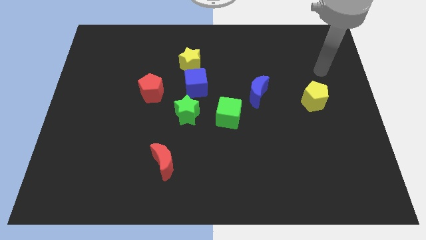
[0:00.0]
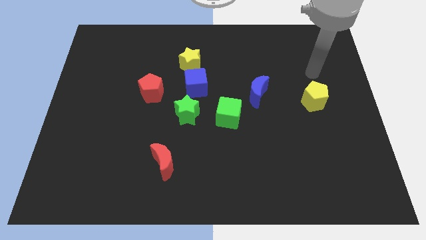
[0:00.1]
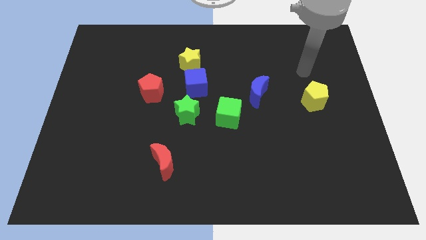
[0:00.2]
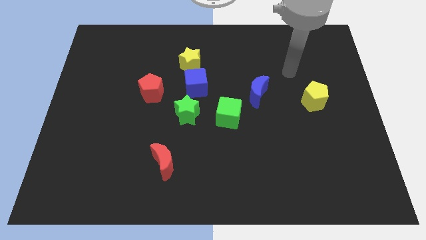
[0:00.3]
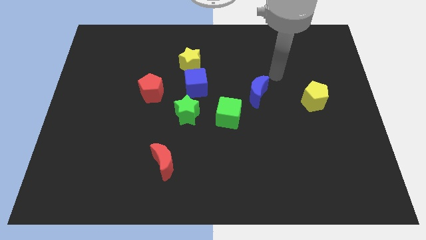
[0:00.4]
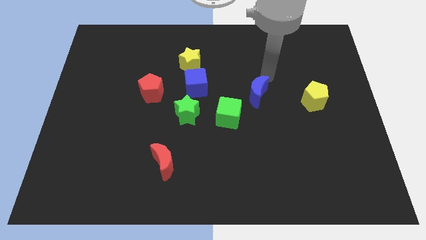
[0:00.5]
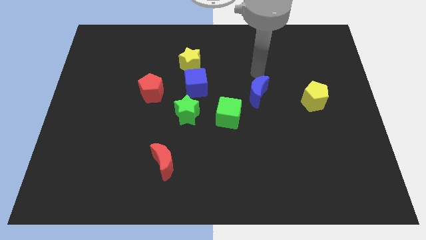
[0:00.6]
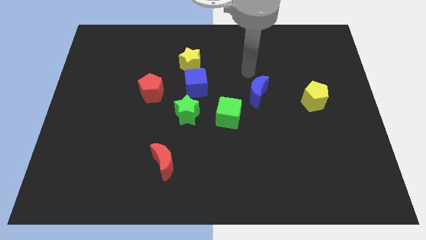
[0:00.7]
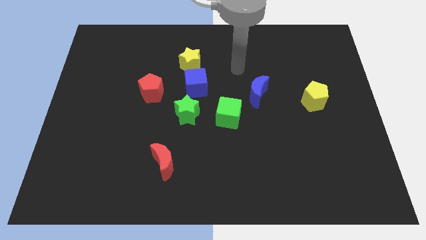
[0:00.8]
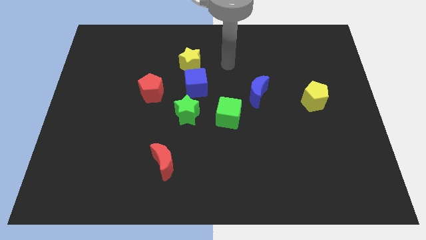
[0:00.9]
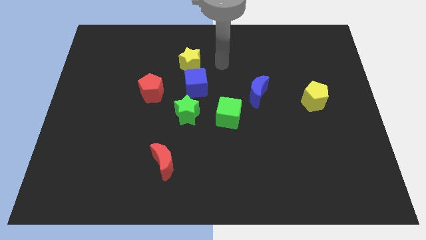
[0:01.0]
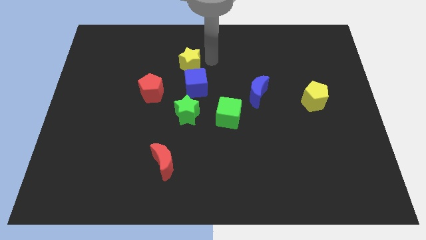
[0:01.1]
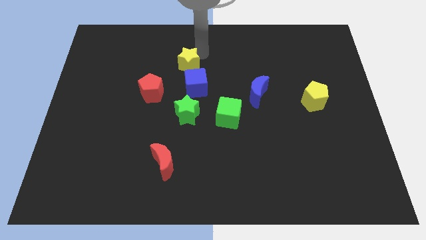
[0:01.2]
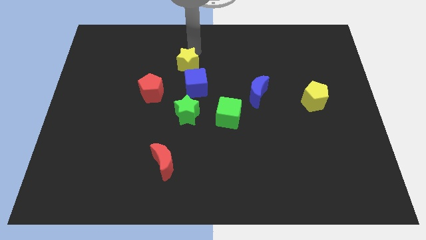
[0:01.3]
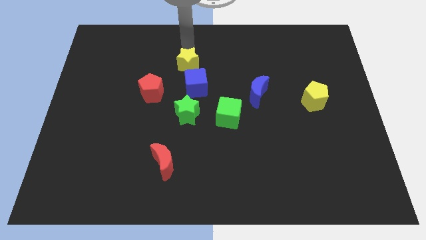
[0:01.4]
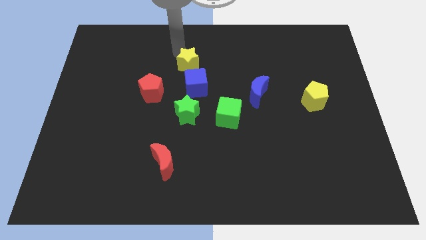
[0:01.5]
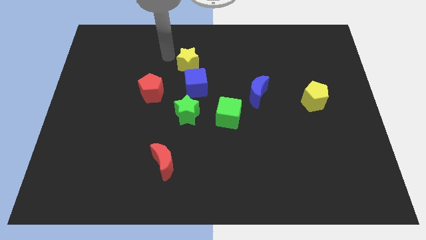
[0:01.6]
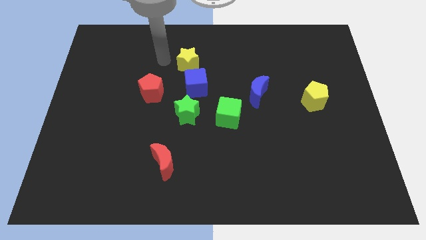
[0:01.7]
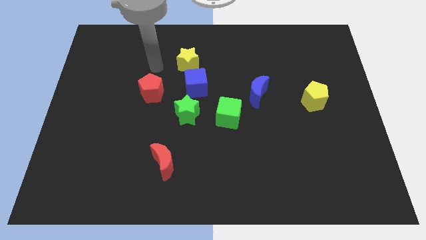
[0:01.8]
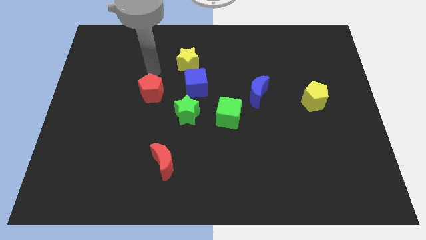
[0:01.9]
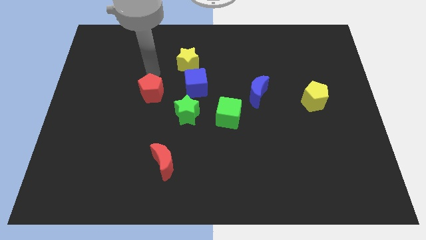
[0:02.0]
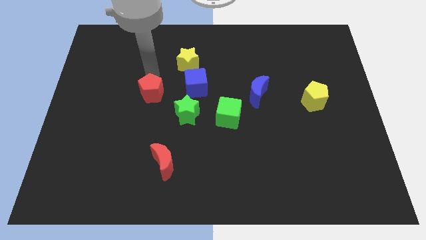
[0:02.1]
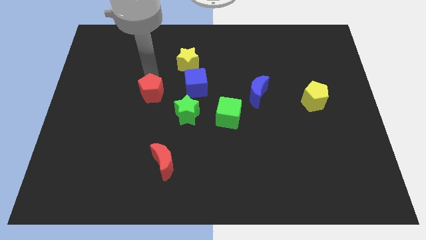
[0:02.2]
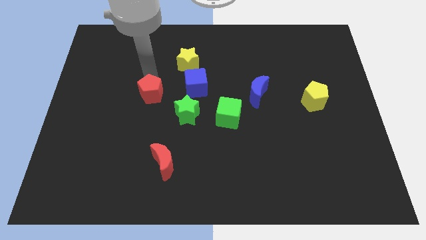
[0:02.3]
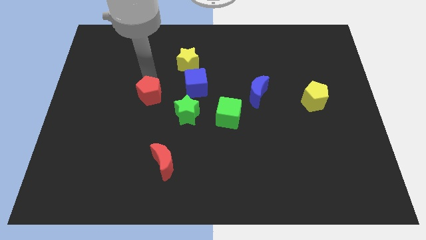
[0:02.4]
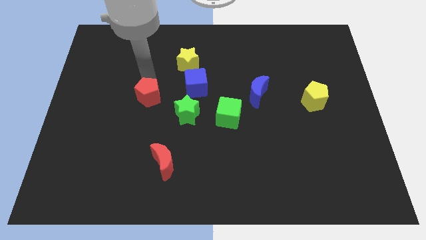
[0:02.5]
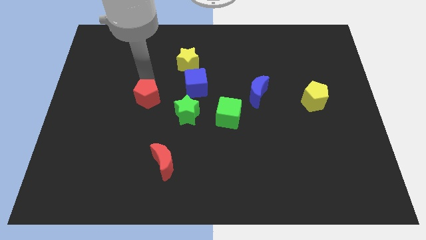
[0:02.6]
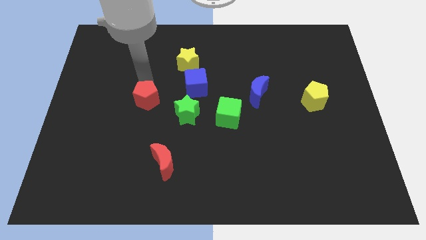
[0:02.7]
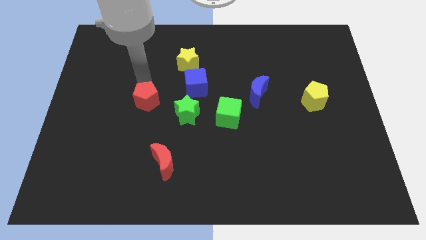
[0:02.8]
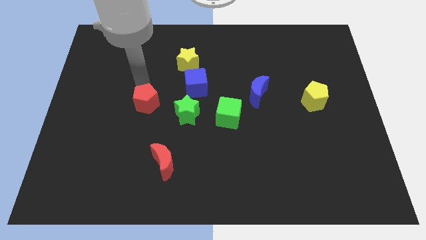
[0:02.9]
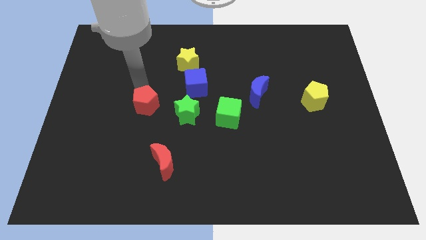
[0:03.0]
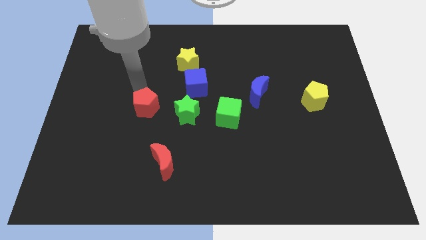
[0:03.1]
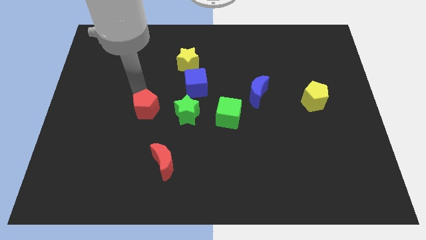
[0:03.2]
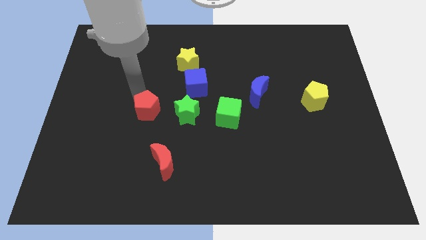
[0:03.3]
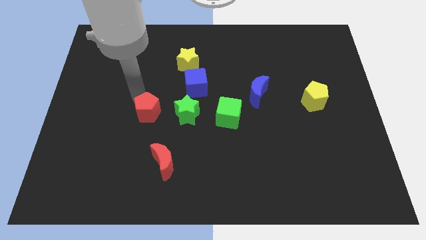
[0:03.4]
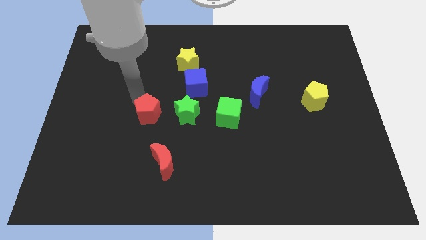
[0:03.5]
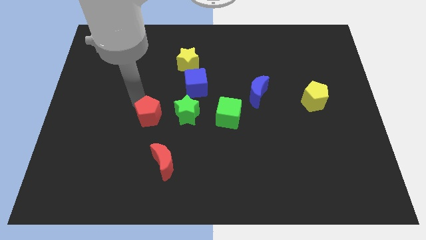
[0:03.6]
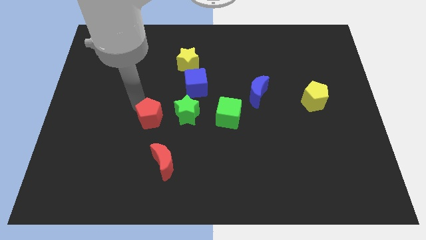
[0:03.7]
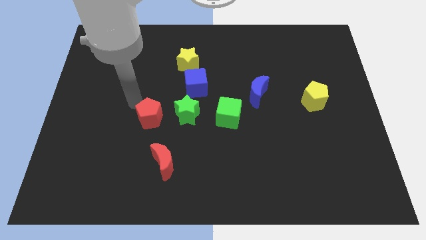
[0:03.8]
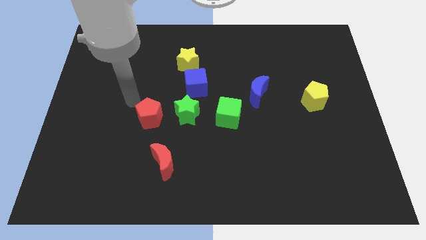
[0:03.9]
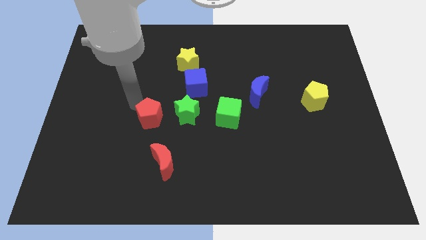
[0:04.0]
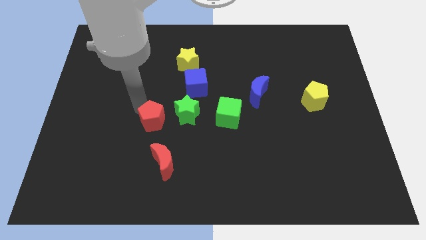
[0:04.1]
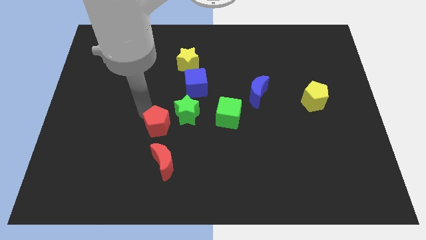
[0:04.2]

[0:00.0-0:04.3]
slightly slide the red pentagon downwards and to the right

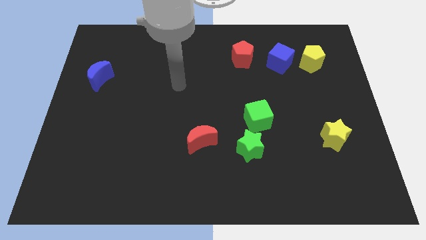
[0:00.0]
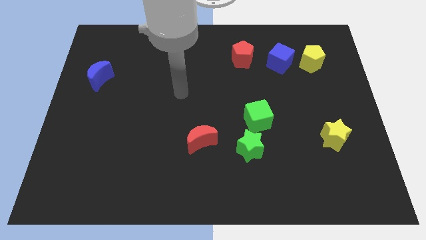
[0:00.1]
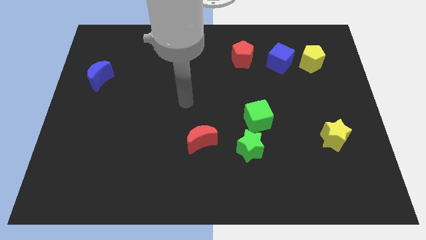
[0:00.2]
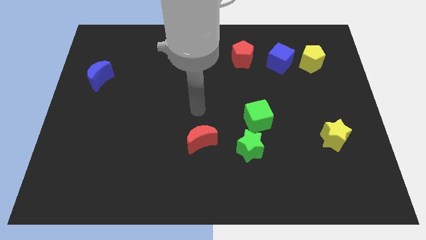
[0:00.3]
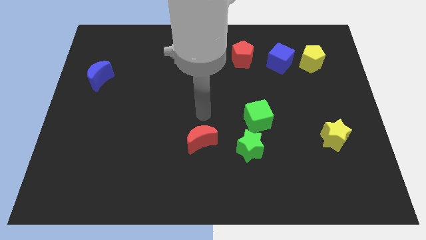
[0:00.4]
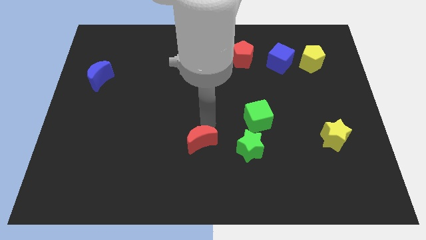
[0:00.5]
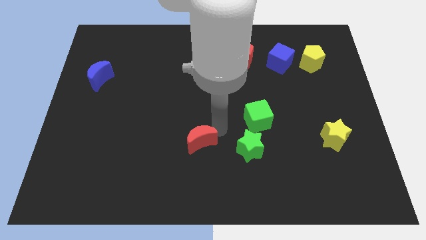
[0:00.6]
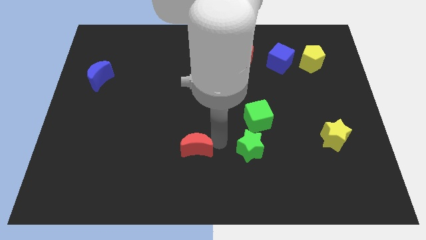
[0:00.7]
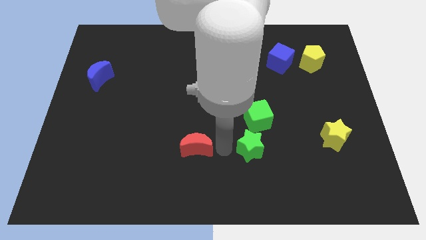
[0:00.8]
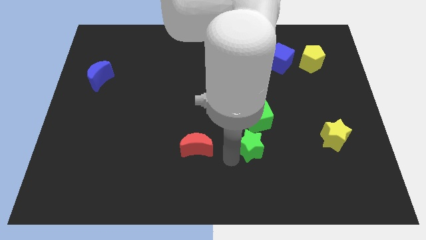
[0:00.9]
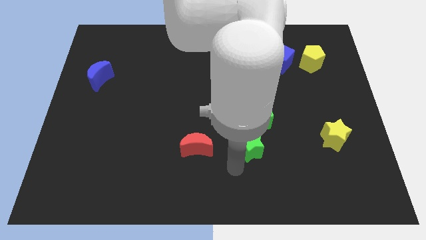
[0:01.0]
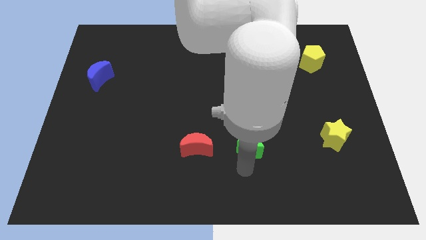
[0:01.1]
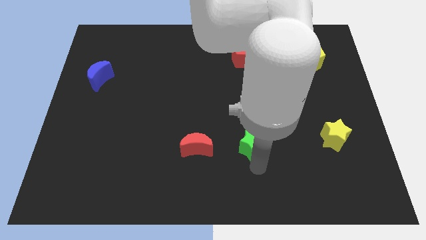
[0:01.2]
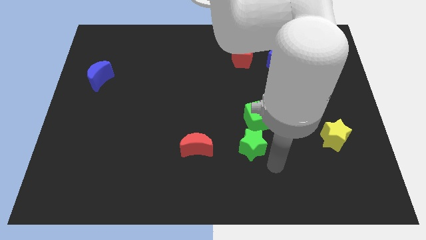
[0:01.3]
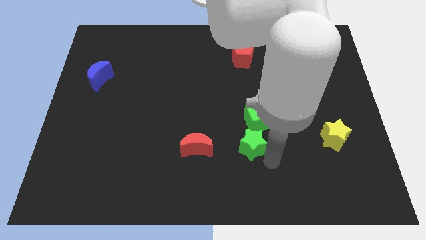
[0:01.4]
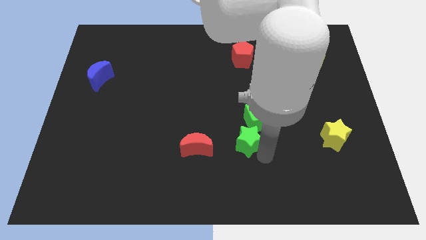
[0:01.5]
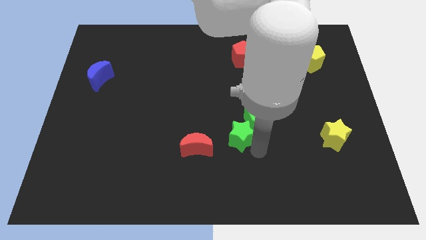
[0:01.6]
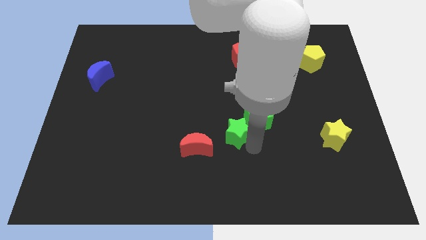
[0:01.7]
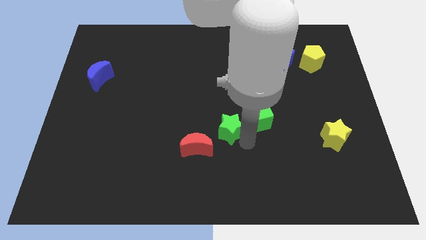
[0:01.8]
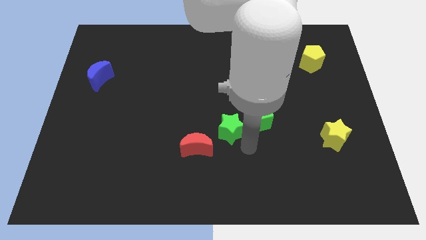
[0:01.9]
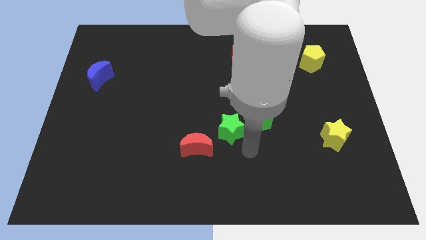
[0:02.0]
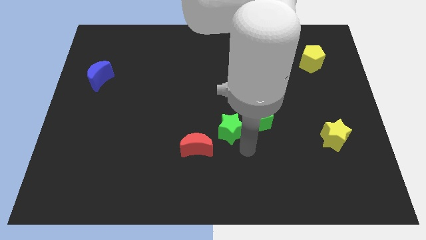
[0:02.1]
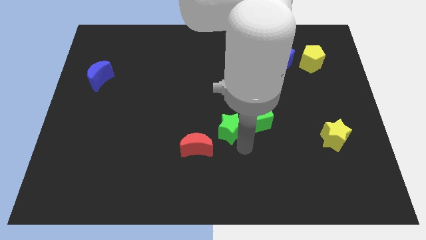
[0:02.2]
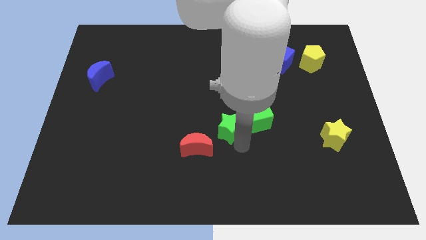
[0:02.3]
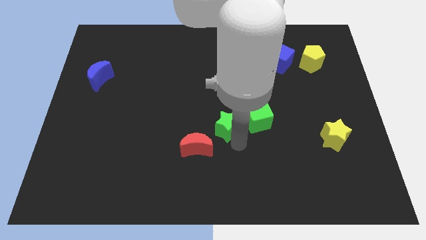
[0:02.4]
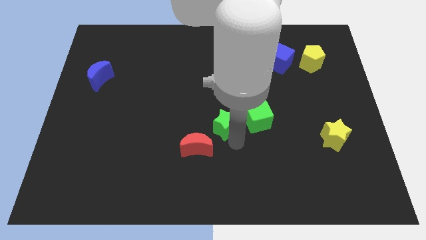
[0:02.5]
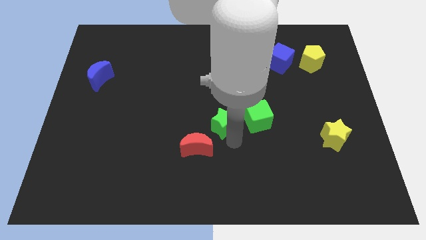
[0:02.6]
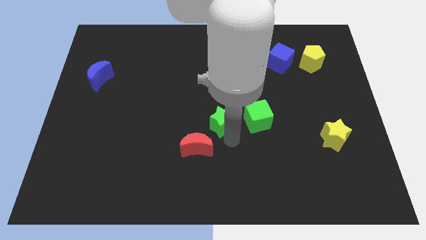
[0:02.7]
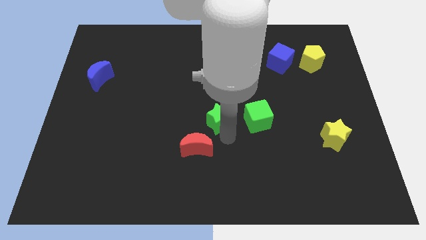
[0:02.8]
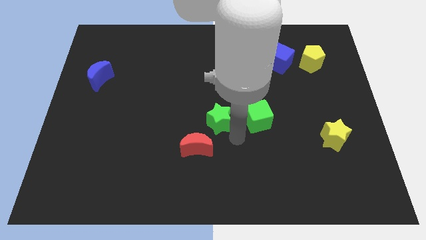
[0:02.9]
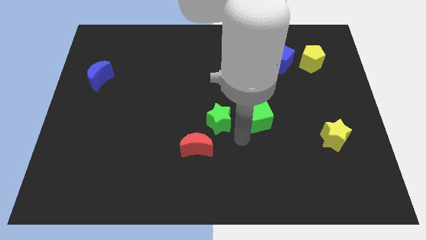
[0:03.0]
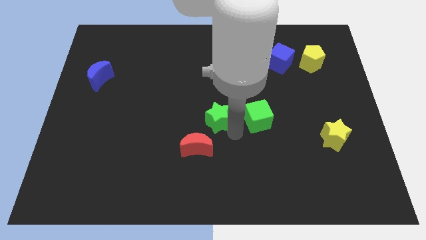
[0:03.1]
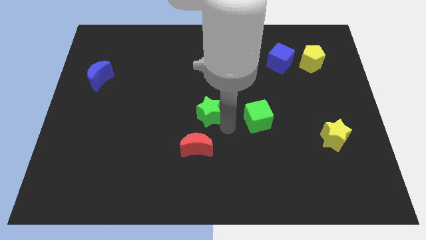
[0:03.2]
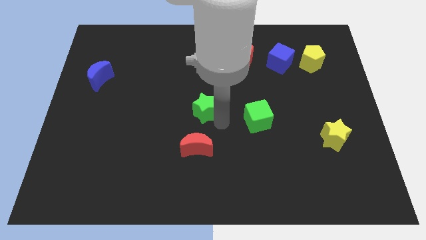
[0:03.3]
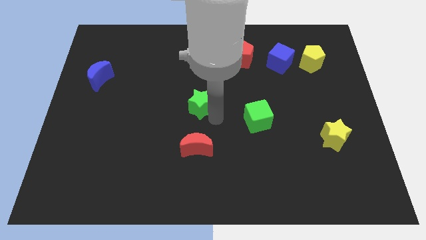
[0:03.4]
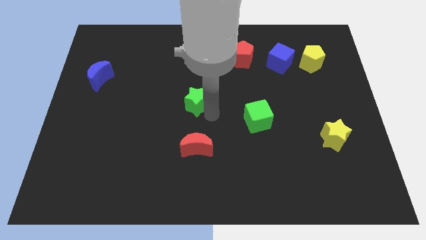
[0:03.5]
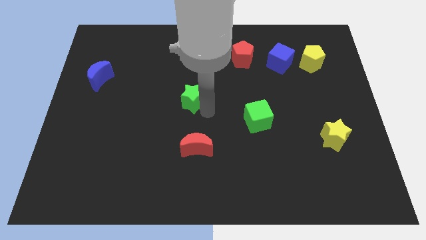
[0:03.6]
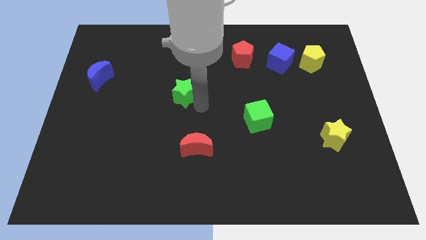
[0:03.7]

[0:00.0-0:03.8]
push the green star upwards and to the left

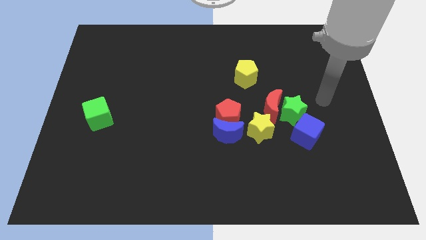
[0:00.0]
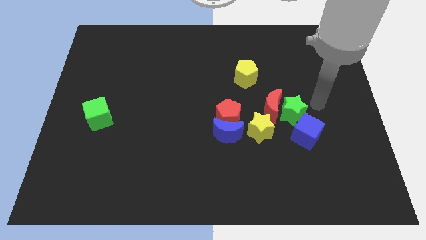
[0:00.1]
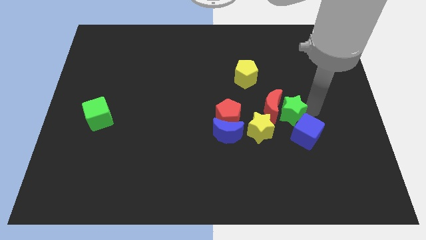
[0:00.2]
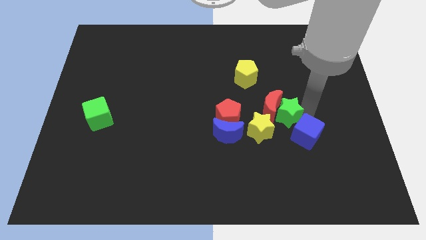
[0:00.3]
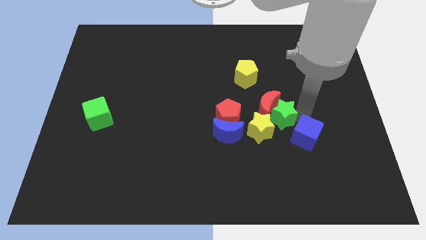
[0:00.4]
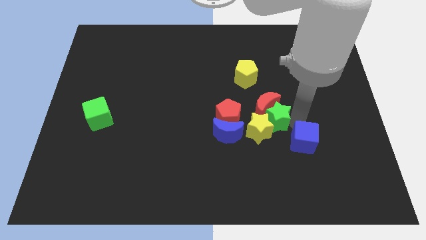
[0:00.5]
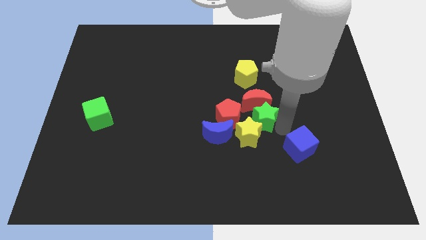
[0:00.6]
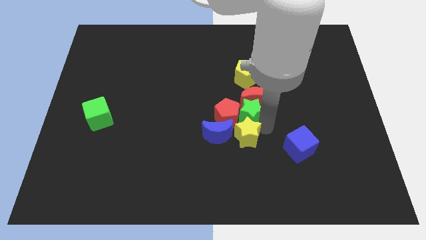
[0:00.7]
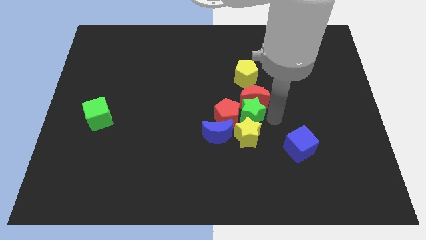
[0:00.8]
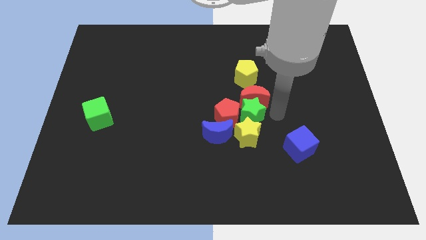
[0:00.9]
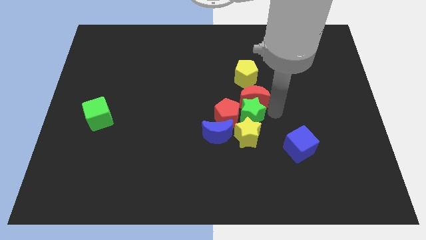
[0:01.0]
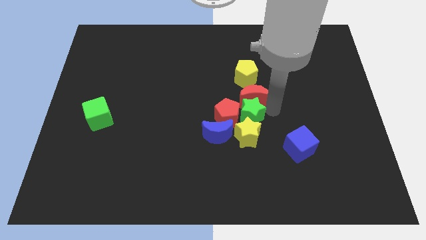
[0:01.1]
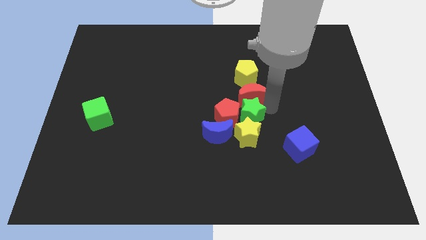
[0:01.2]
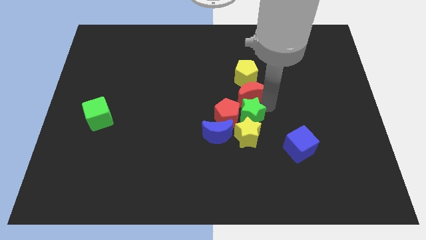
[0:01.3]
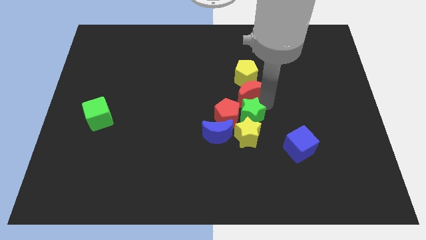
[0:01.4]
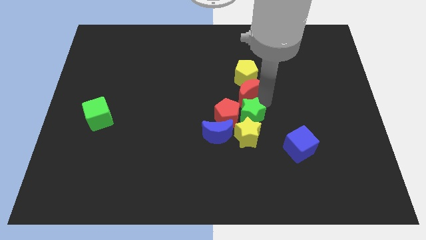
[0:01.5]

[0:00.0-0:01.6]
slide the red moon up and left a bit
